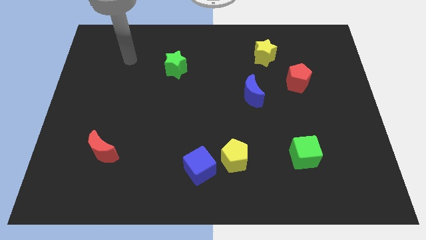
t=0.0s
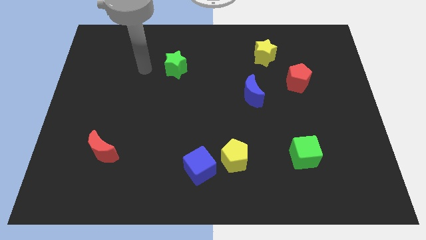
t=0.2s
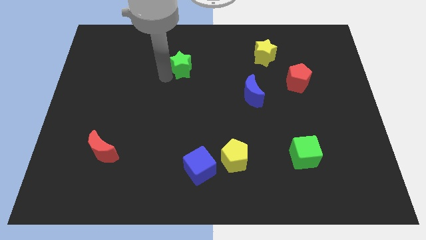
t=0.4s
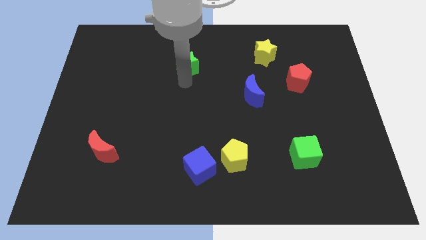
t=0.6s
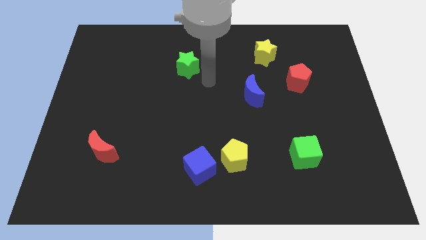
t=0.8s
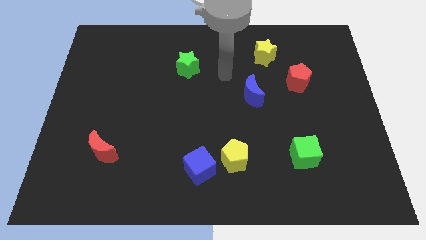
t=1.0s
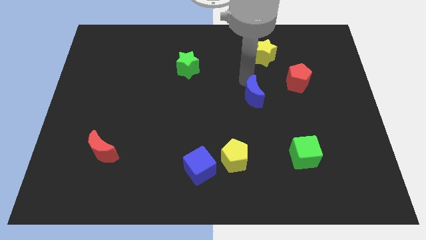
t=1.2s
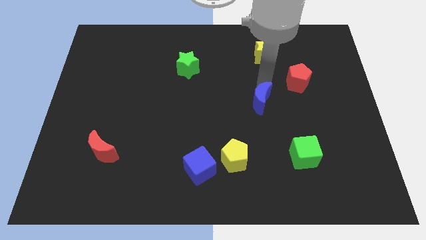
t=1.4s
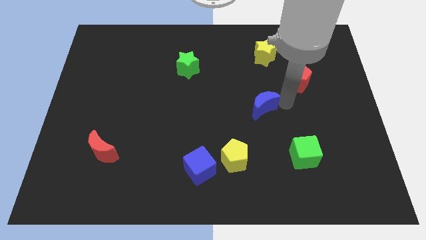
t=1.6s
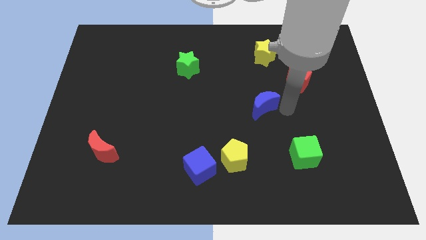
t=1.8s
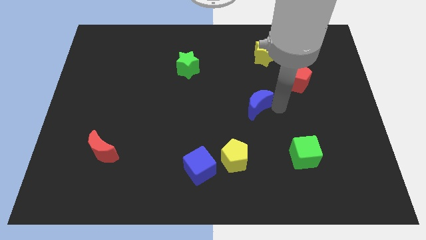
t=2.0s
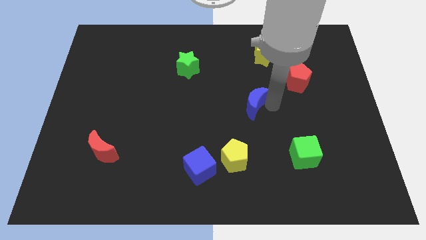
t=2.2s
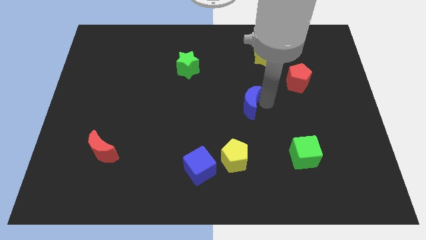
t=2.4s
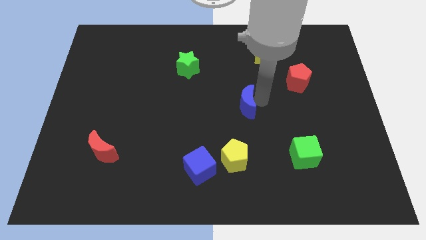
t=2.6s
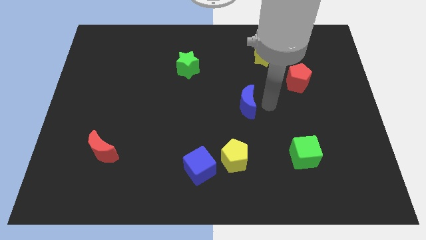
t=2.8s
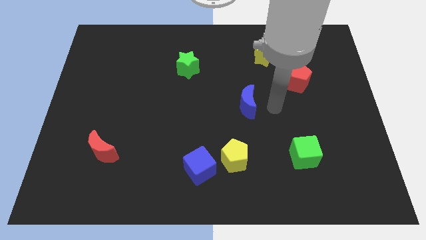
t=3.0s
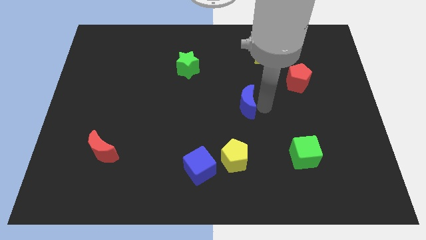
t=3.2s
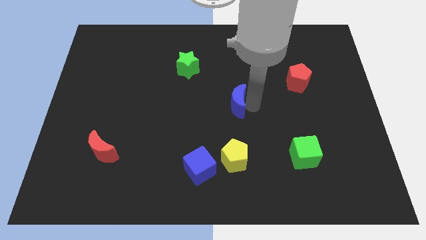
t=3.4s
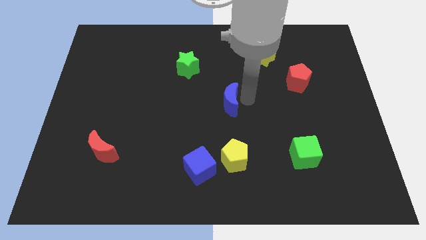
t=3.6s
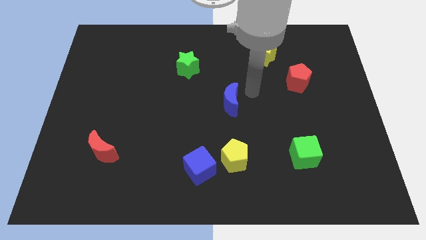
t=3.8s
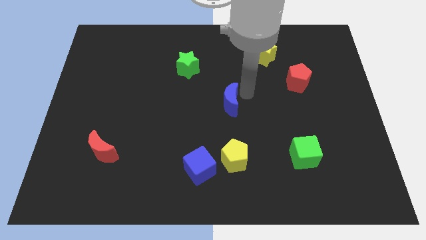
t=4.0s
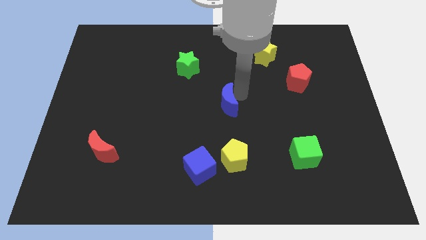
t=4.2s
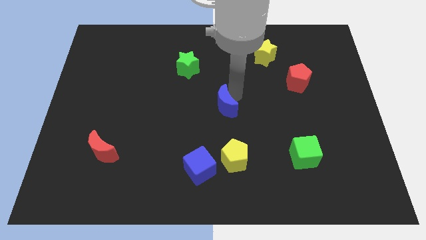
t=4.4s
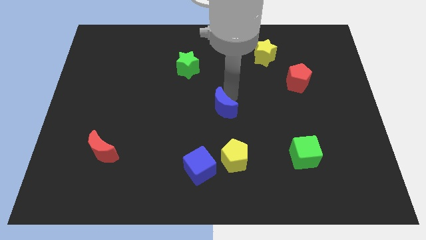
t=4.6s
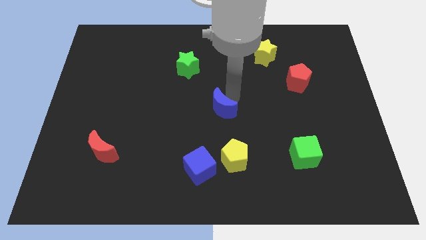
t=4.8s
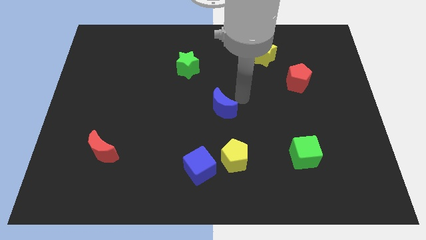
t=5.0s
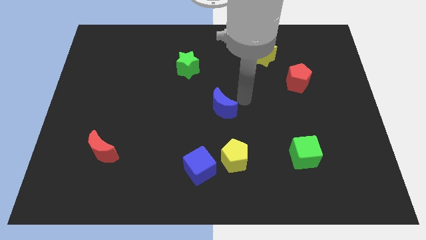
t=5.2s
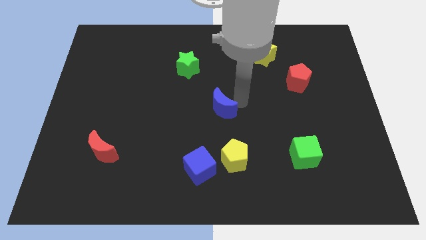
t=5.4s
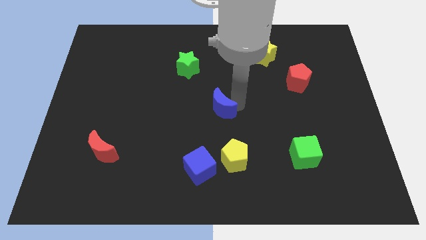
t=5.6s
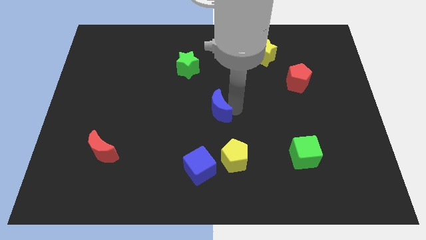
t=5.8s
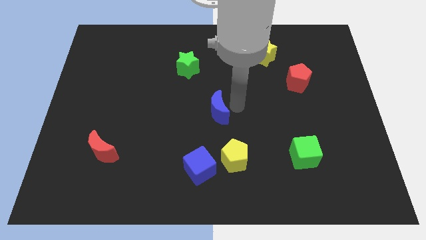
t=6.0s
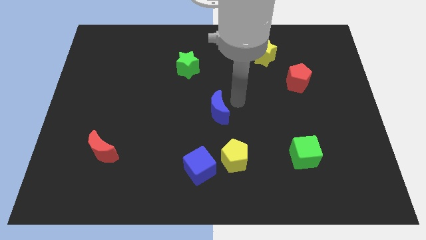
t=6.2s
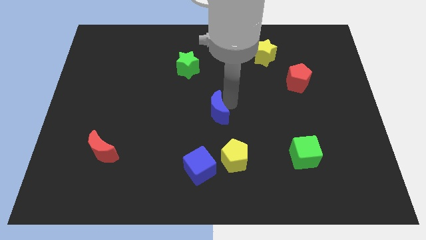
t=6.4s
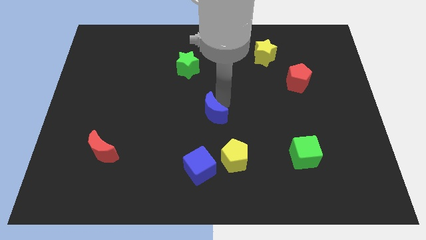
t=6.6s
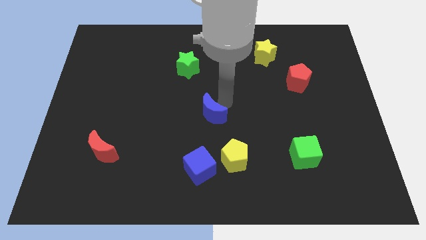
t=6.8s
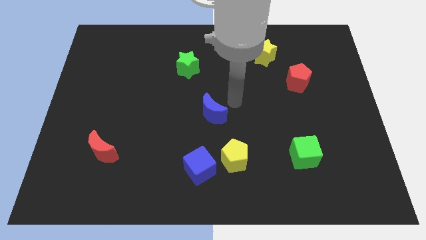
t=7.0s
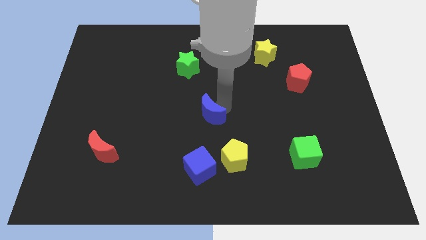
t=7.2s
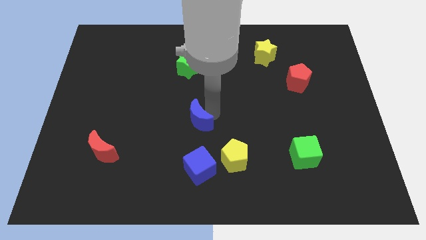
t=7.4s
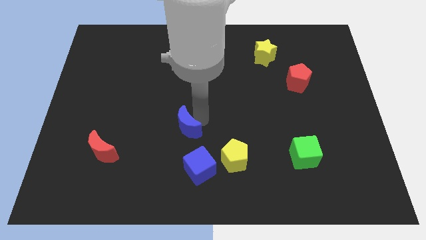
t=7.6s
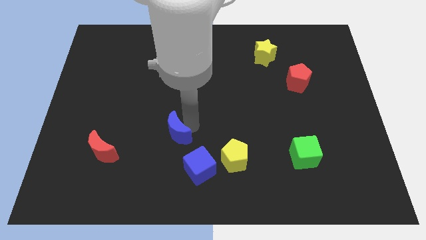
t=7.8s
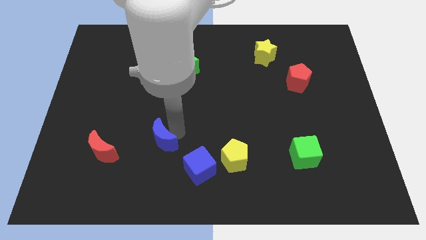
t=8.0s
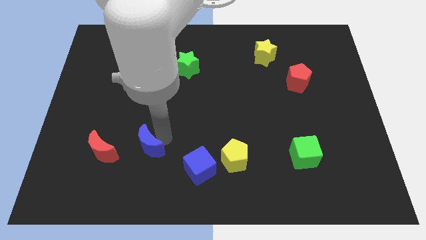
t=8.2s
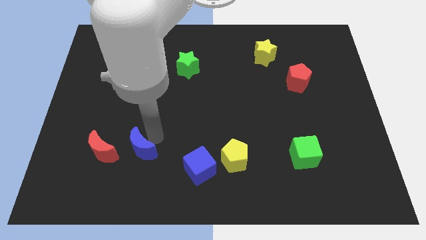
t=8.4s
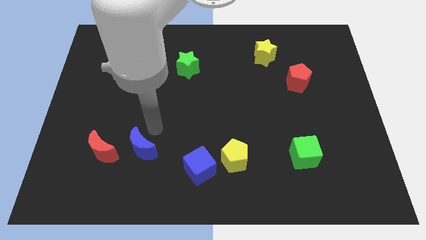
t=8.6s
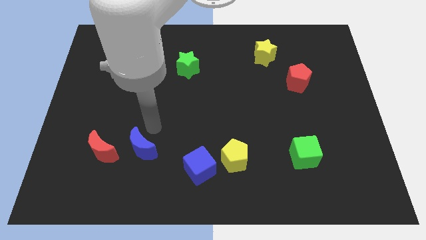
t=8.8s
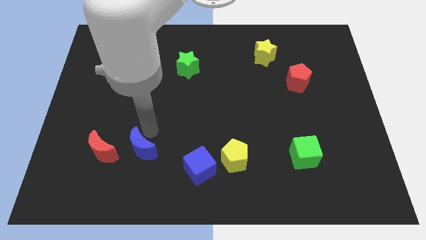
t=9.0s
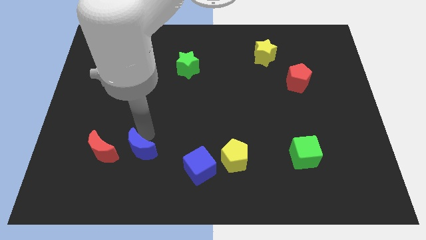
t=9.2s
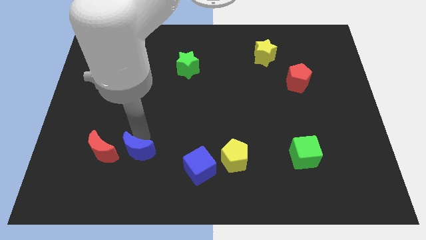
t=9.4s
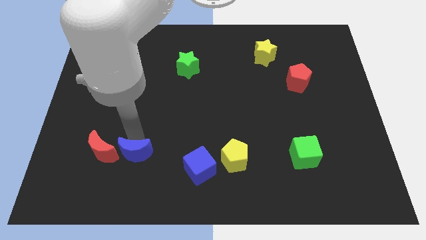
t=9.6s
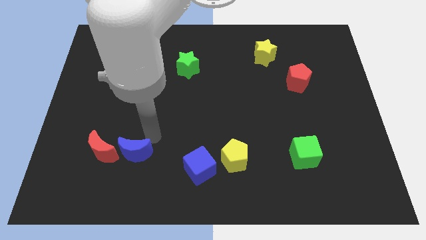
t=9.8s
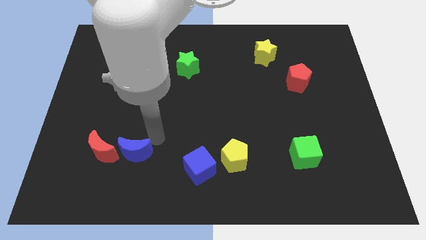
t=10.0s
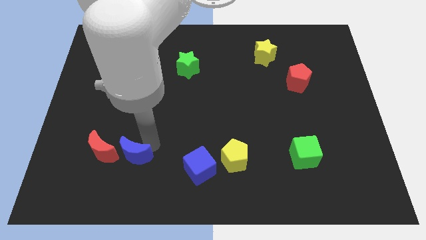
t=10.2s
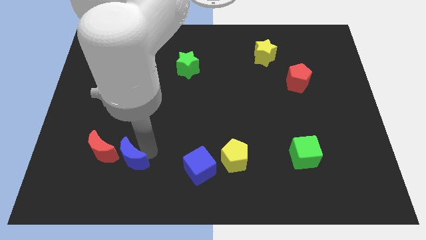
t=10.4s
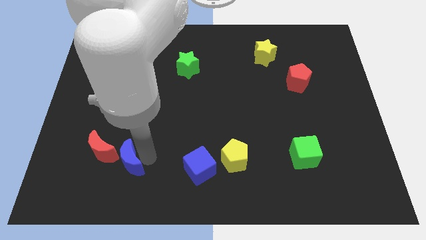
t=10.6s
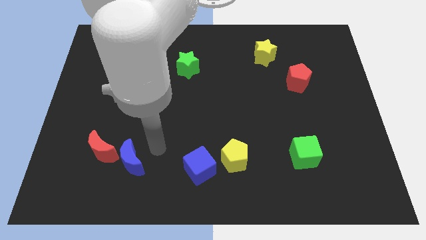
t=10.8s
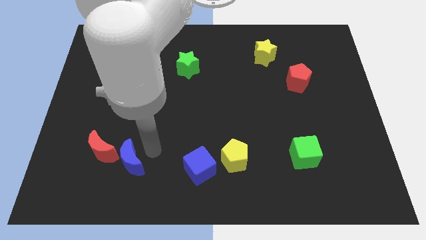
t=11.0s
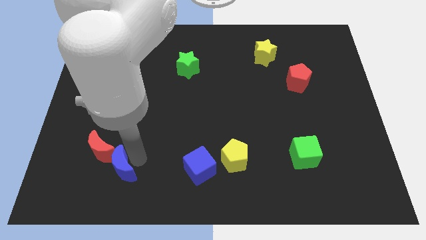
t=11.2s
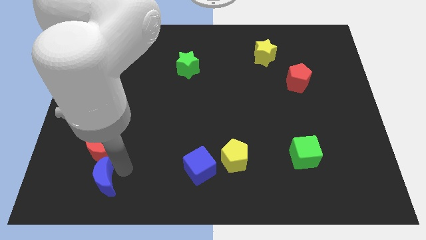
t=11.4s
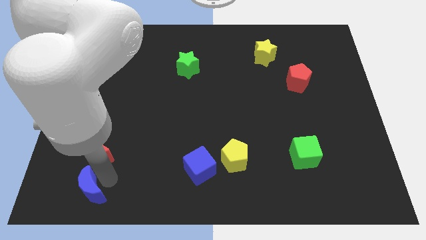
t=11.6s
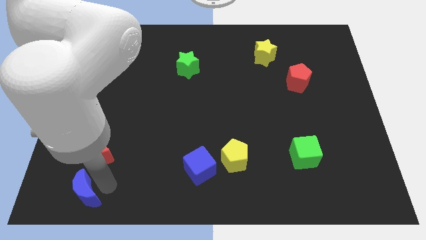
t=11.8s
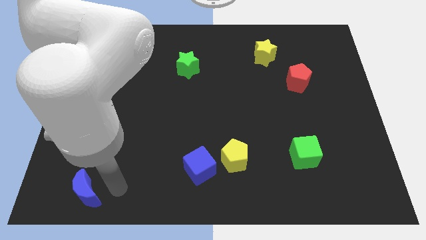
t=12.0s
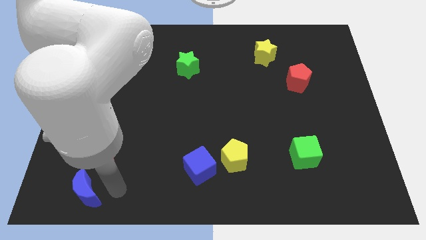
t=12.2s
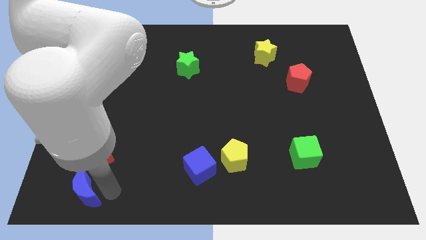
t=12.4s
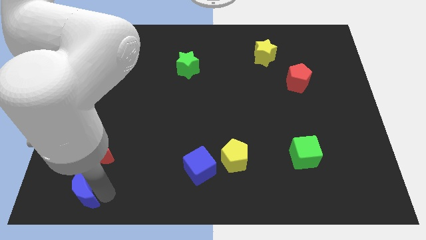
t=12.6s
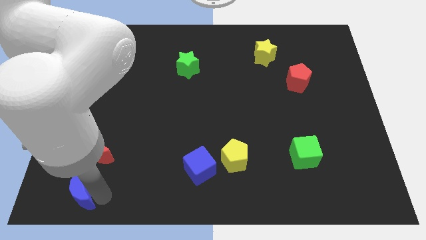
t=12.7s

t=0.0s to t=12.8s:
slide the blue moon to the bottom left corner

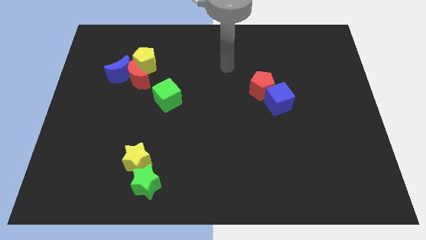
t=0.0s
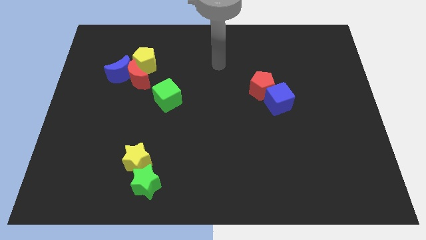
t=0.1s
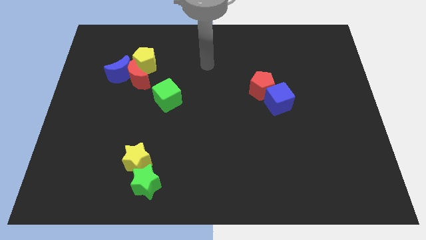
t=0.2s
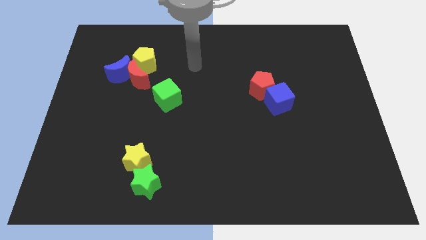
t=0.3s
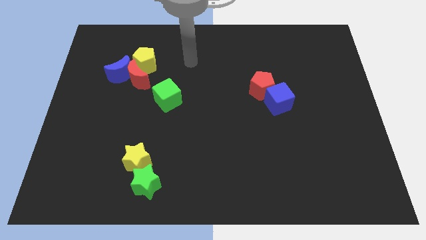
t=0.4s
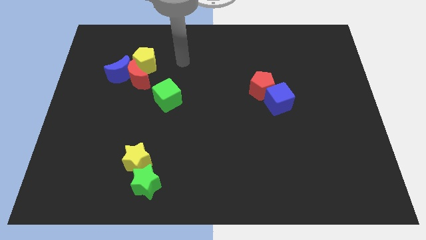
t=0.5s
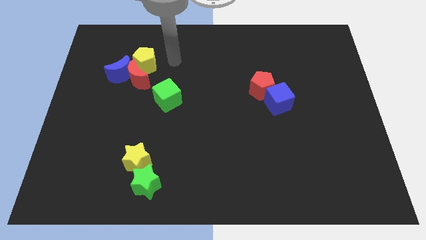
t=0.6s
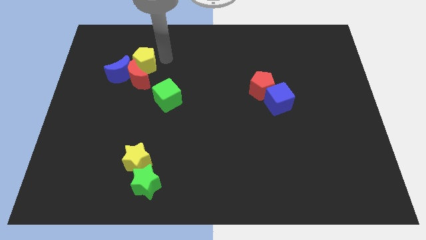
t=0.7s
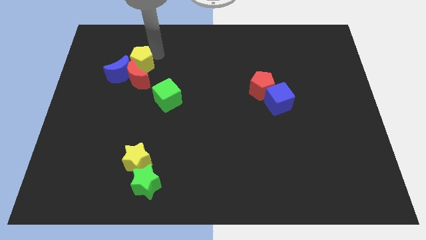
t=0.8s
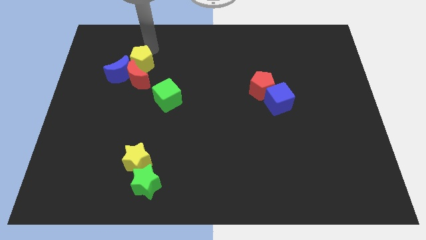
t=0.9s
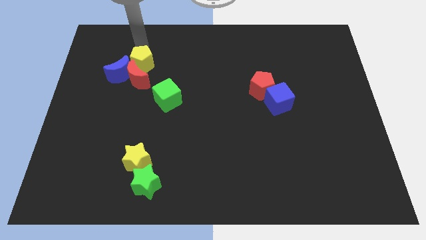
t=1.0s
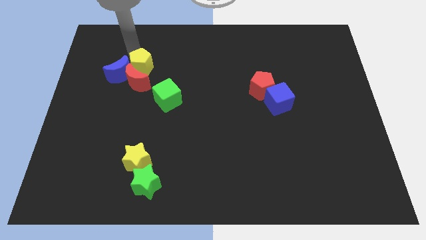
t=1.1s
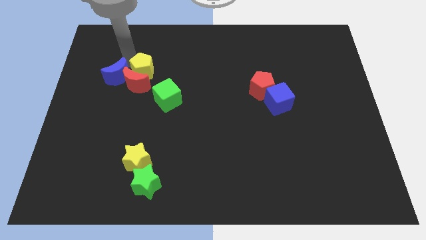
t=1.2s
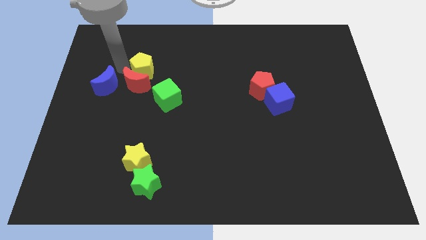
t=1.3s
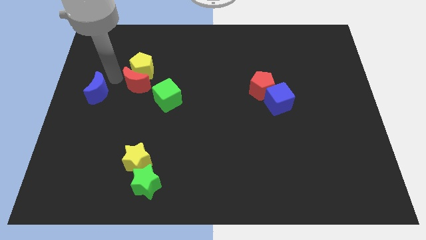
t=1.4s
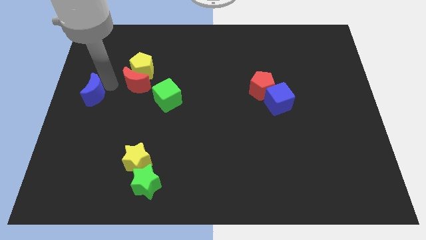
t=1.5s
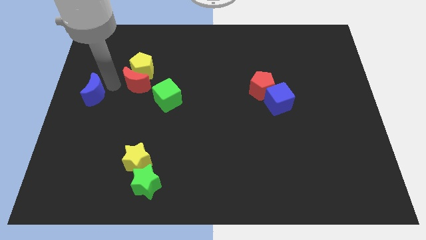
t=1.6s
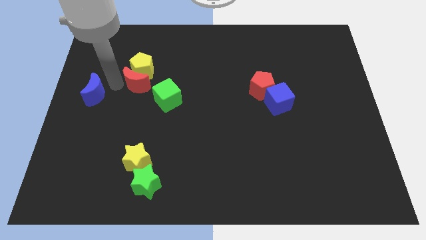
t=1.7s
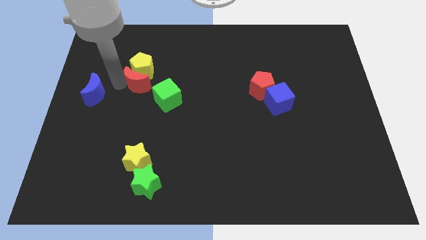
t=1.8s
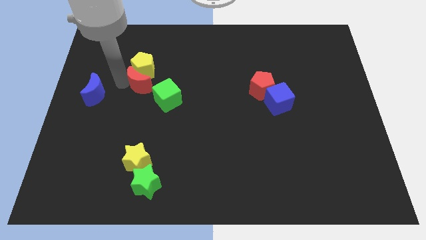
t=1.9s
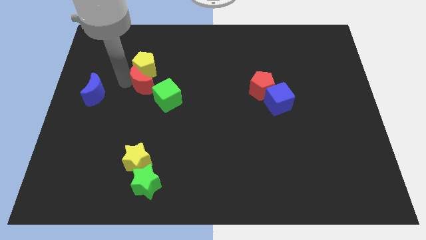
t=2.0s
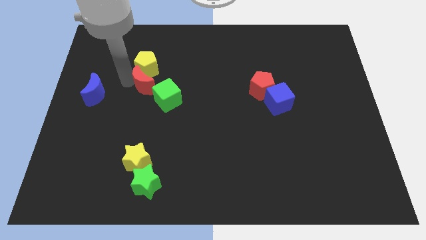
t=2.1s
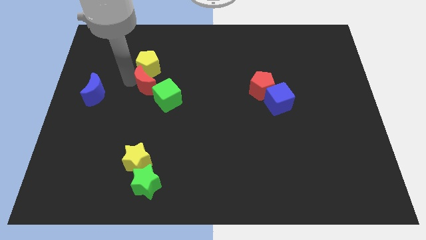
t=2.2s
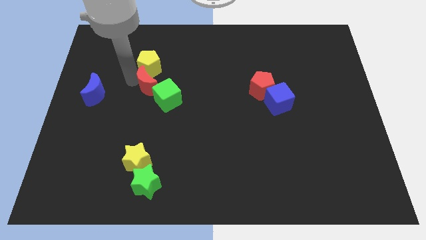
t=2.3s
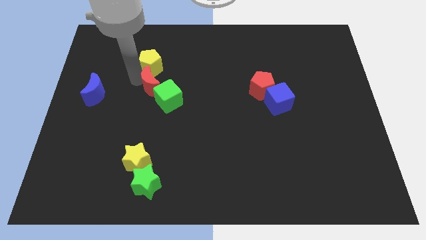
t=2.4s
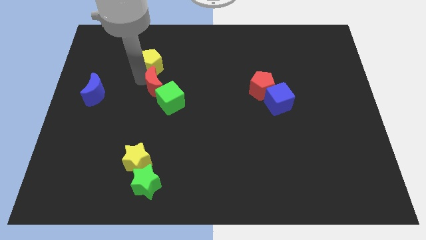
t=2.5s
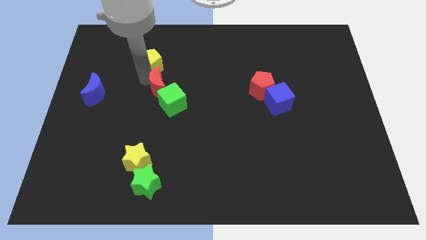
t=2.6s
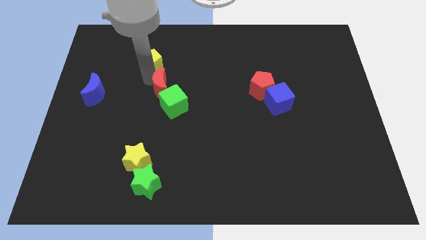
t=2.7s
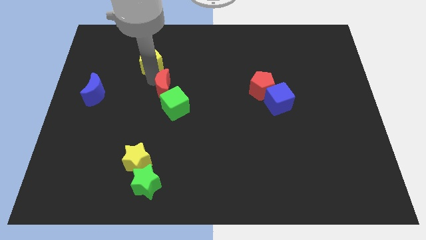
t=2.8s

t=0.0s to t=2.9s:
push the red moon to the middle
